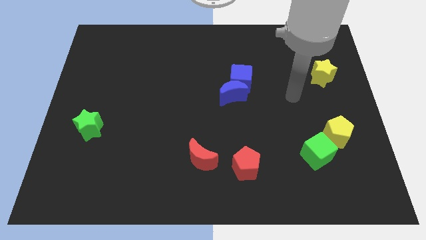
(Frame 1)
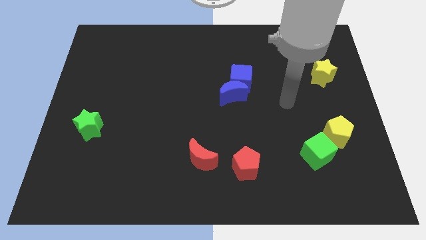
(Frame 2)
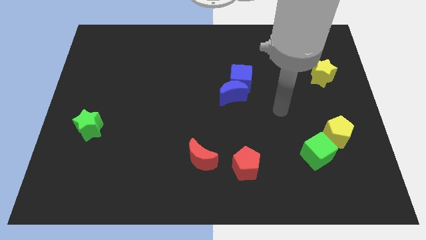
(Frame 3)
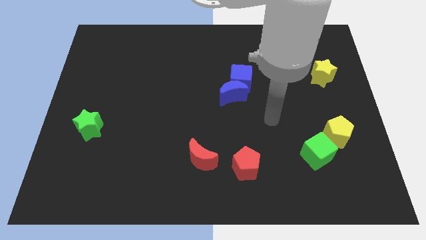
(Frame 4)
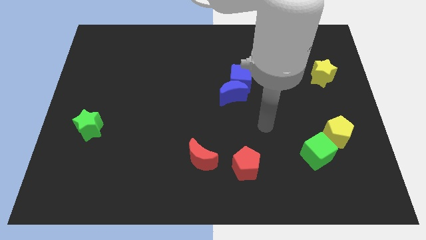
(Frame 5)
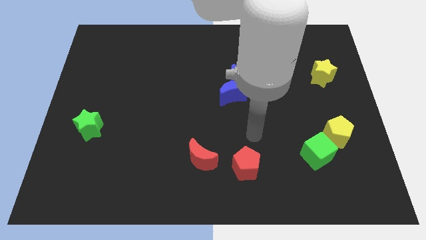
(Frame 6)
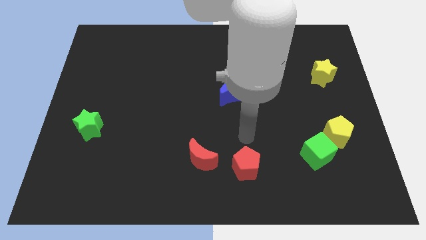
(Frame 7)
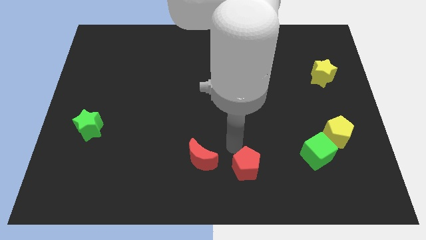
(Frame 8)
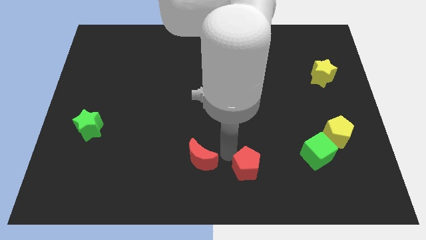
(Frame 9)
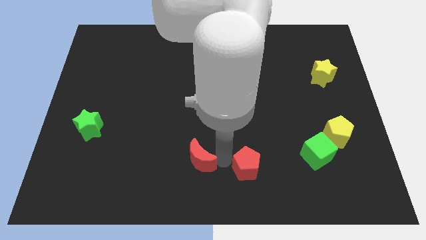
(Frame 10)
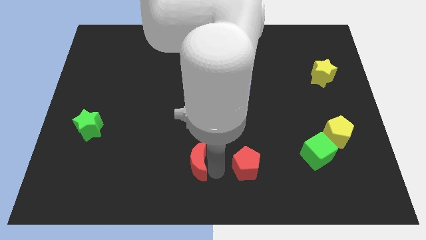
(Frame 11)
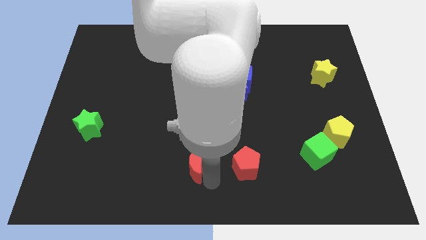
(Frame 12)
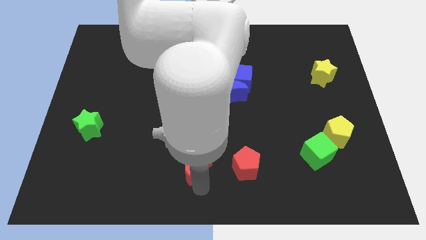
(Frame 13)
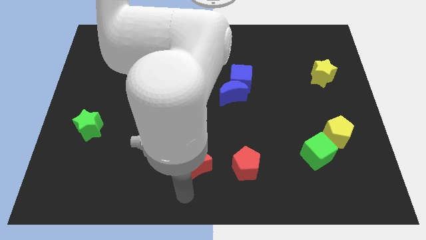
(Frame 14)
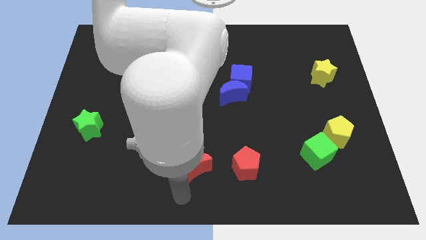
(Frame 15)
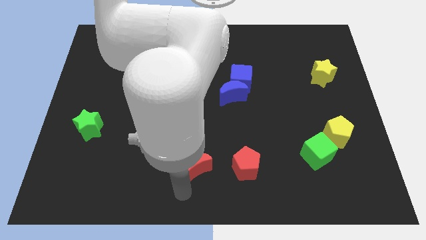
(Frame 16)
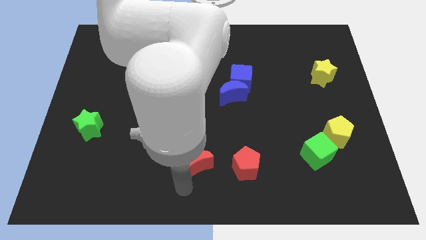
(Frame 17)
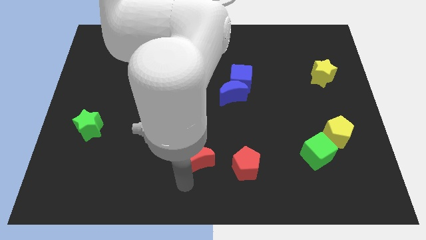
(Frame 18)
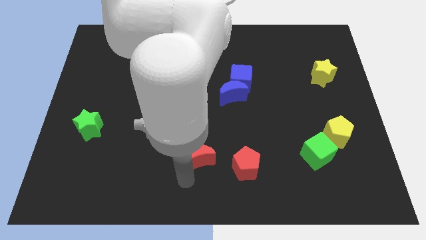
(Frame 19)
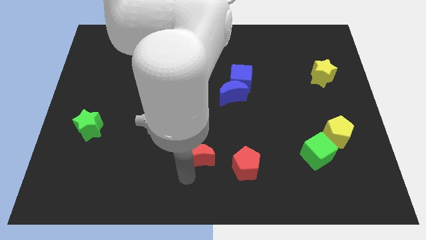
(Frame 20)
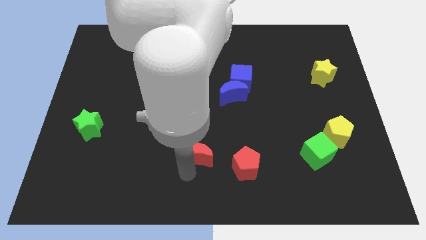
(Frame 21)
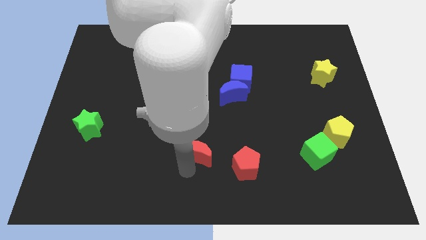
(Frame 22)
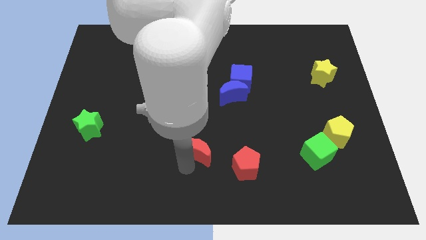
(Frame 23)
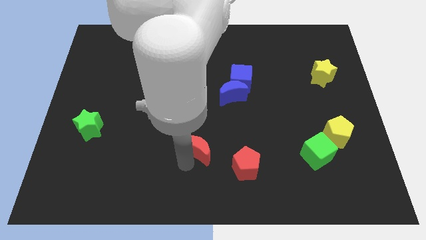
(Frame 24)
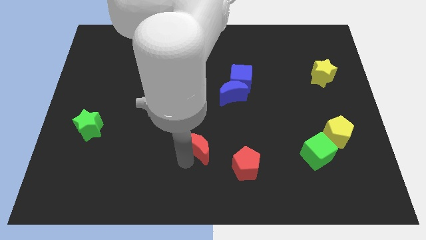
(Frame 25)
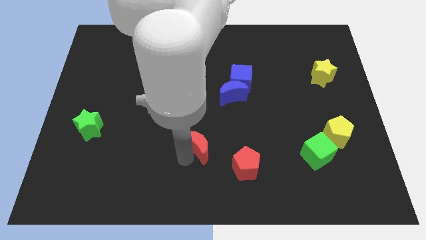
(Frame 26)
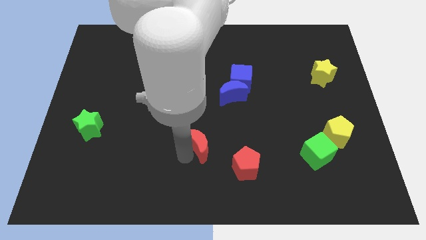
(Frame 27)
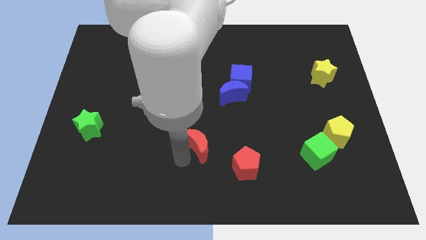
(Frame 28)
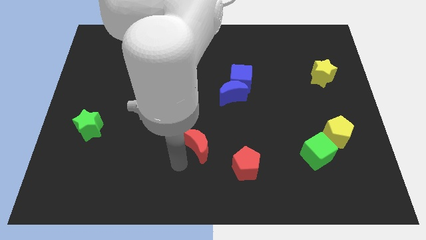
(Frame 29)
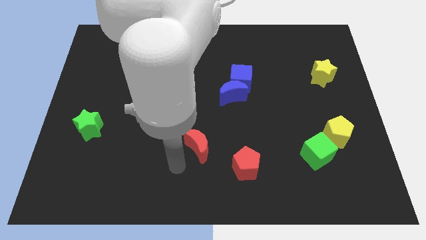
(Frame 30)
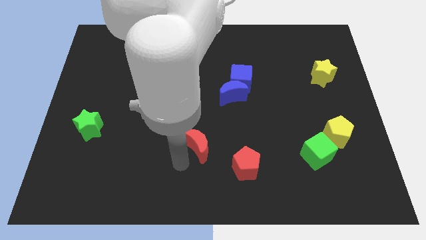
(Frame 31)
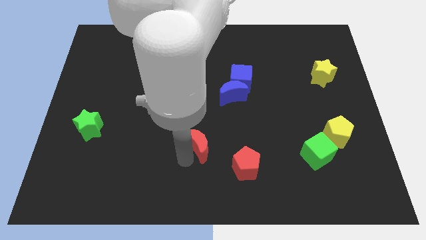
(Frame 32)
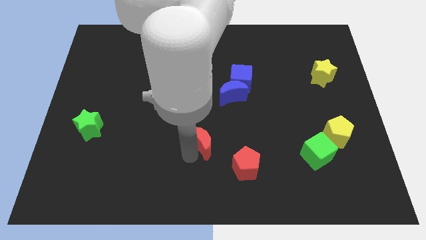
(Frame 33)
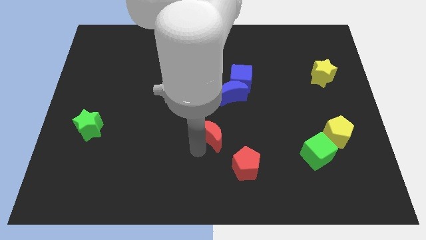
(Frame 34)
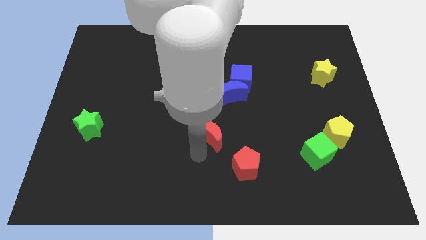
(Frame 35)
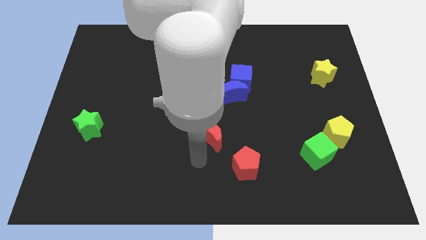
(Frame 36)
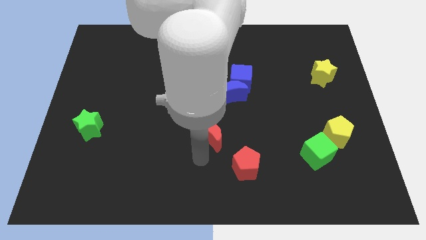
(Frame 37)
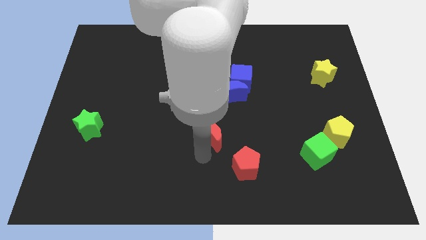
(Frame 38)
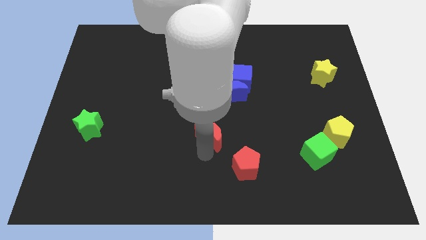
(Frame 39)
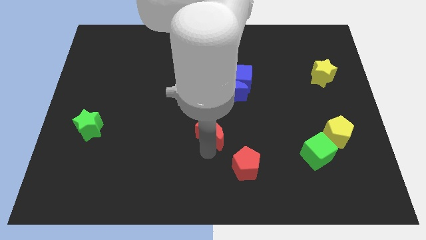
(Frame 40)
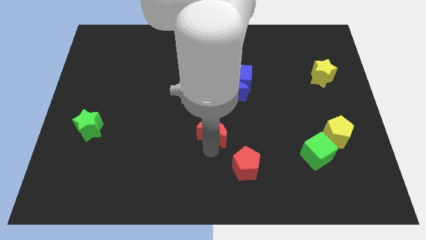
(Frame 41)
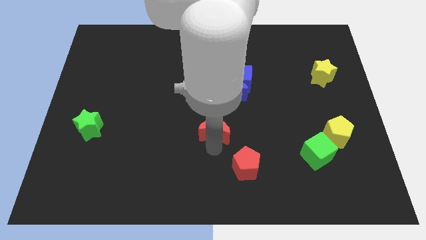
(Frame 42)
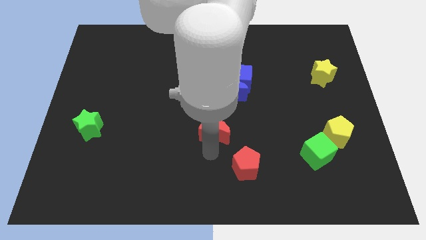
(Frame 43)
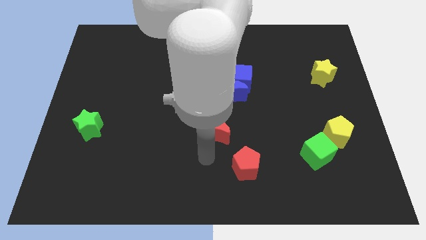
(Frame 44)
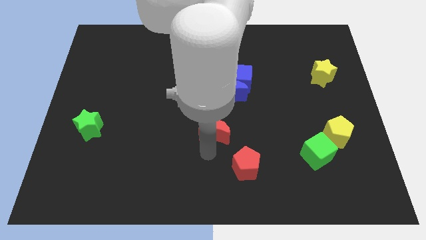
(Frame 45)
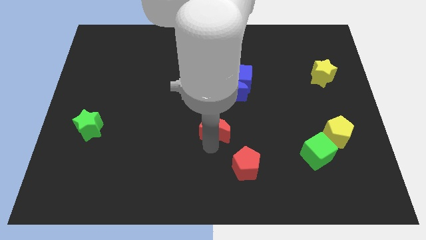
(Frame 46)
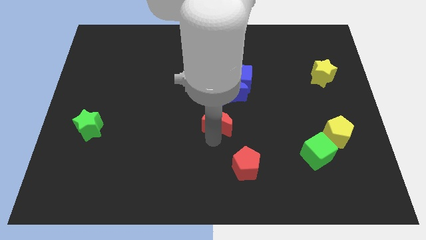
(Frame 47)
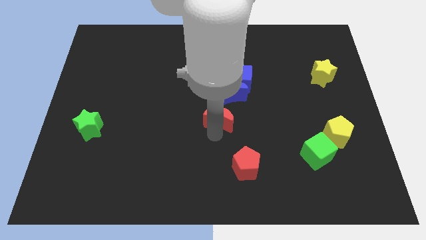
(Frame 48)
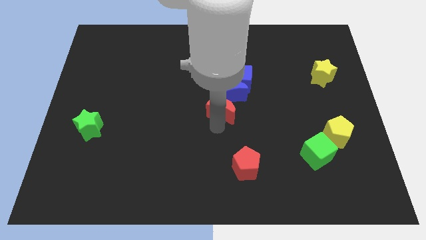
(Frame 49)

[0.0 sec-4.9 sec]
move the red moon next to the blue moon

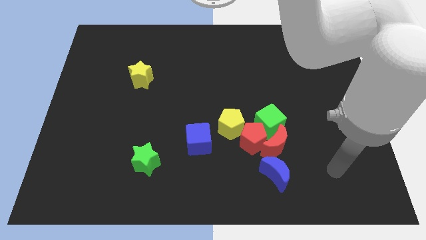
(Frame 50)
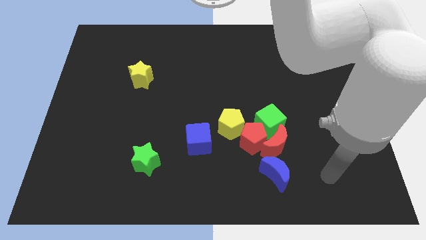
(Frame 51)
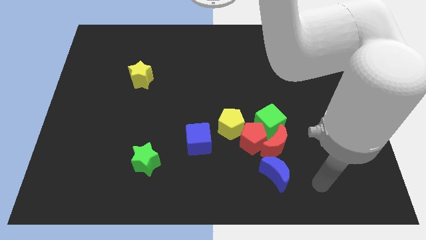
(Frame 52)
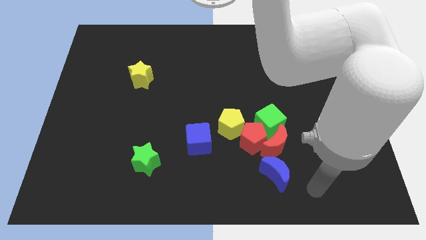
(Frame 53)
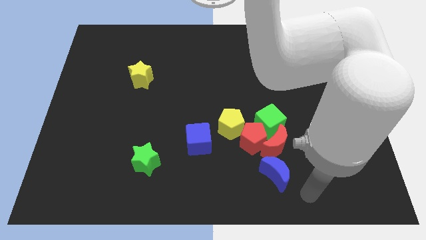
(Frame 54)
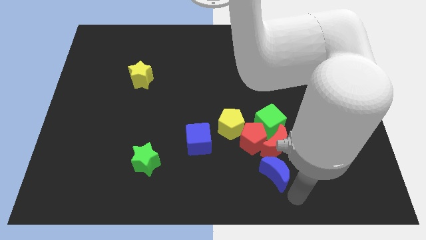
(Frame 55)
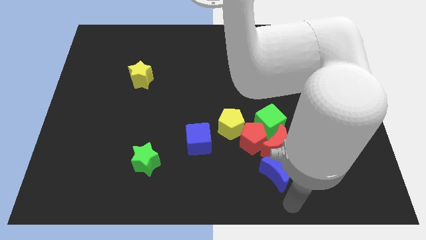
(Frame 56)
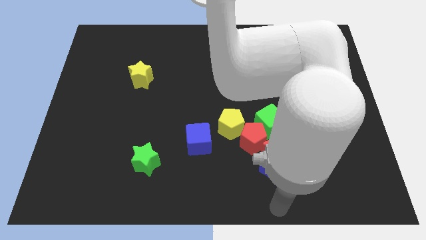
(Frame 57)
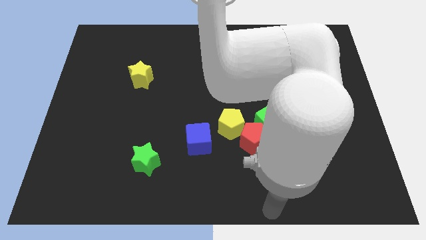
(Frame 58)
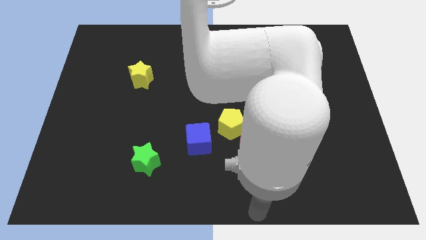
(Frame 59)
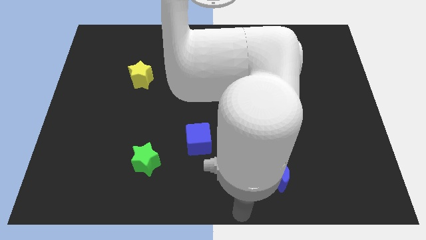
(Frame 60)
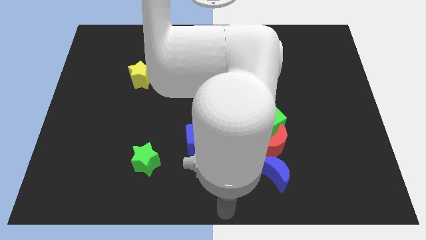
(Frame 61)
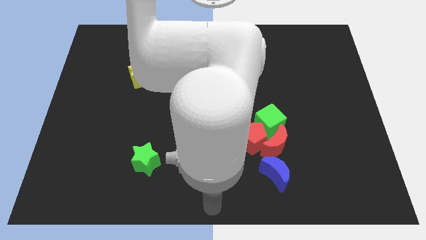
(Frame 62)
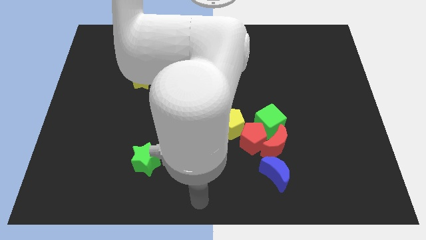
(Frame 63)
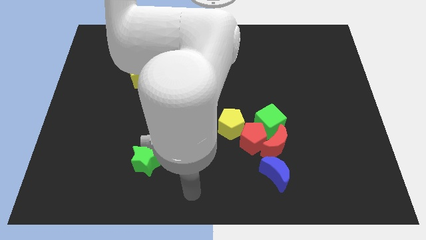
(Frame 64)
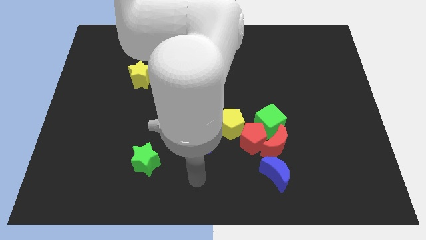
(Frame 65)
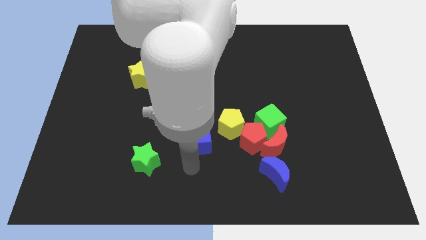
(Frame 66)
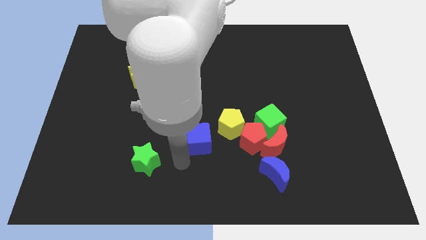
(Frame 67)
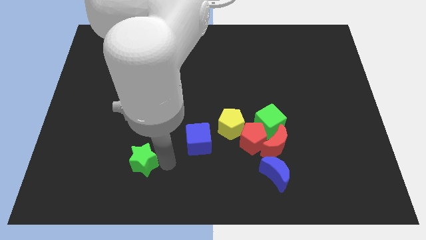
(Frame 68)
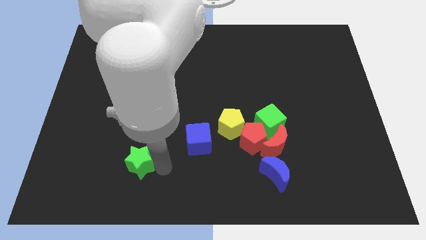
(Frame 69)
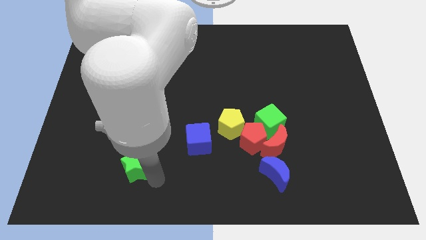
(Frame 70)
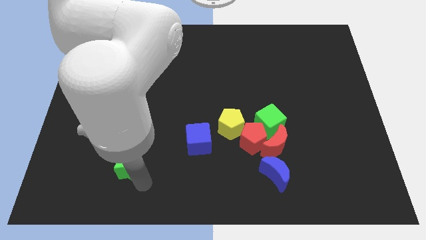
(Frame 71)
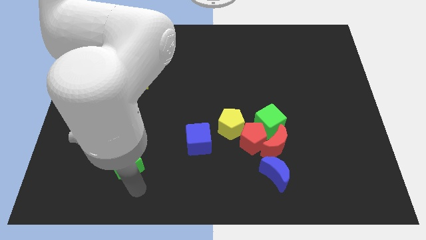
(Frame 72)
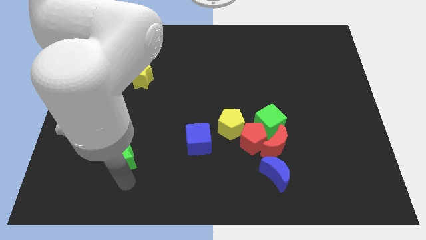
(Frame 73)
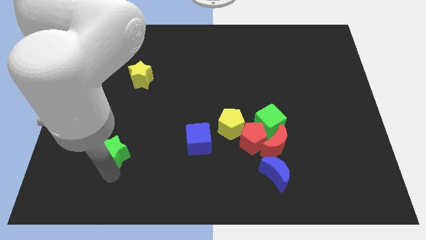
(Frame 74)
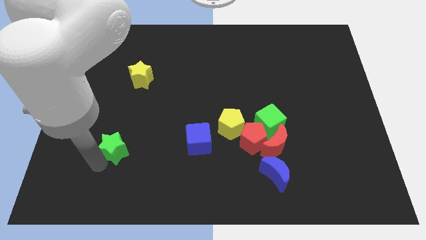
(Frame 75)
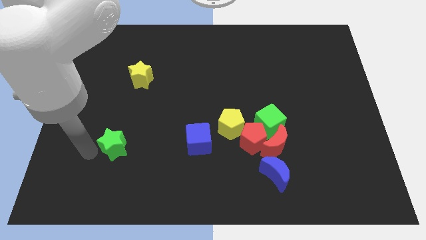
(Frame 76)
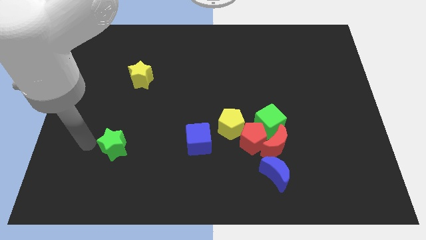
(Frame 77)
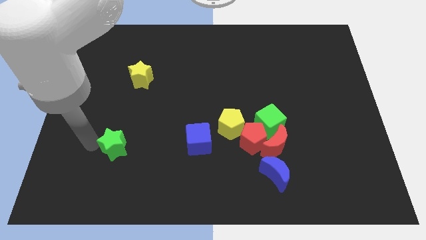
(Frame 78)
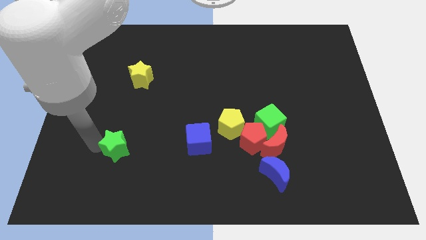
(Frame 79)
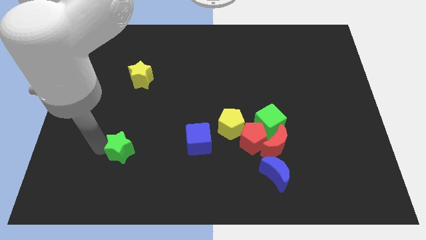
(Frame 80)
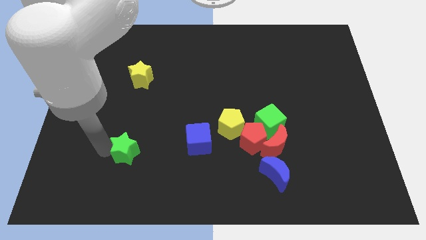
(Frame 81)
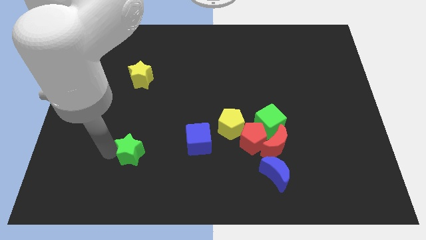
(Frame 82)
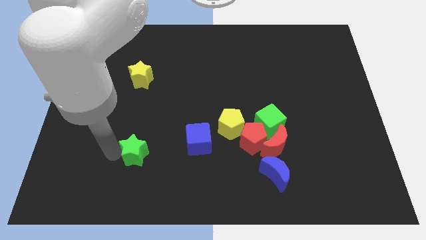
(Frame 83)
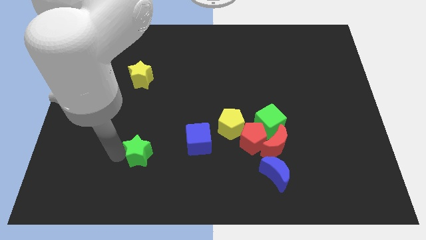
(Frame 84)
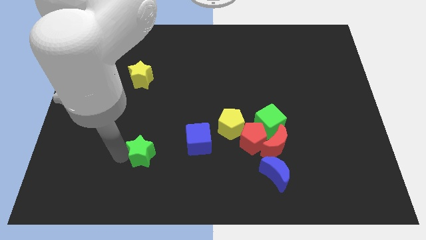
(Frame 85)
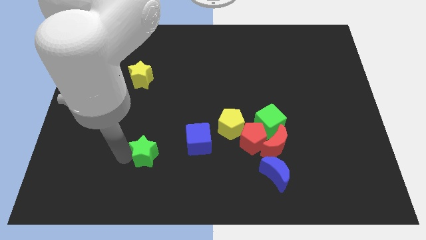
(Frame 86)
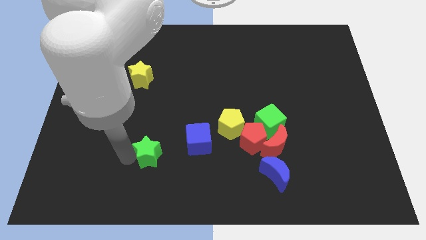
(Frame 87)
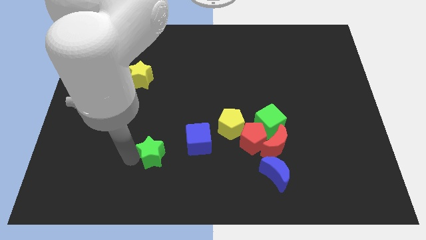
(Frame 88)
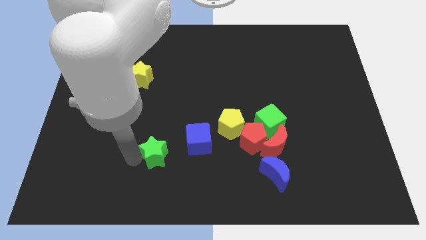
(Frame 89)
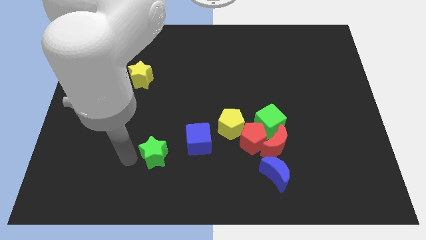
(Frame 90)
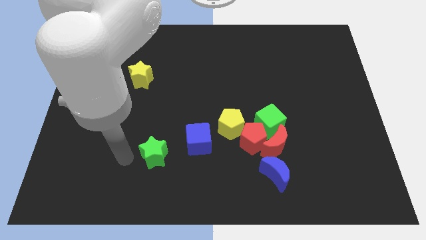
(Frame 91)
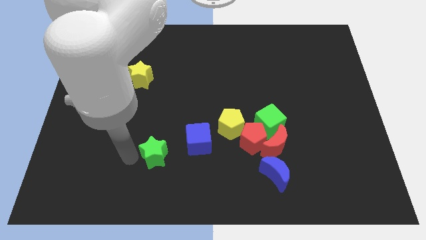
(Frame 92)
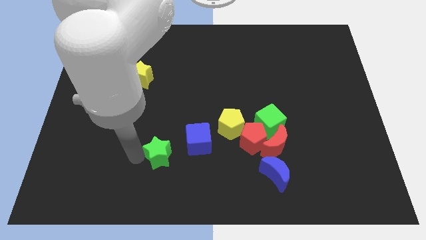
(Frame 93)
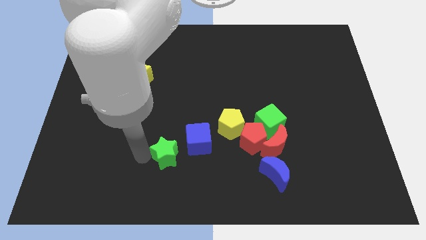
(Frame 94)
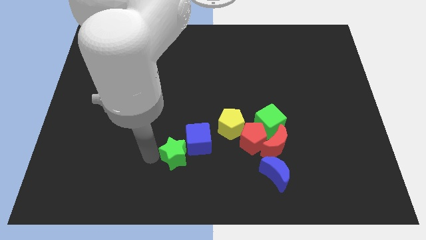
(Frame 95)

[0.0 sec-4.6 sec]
slide the green star towards the blue cube
